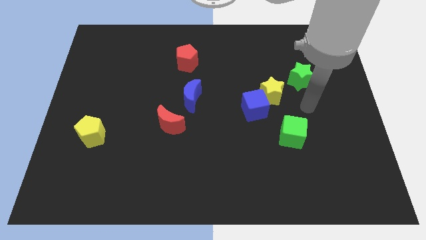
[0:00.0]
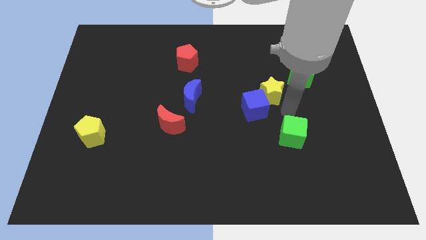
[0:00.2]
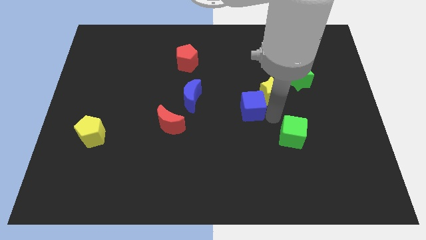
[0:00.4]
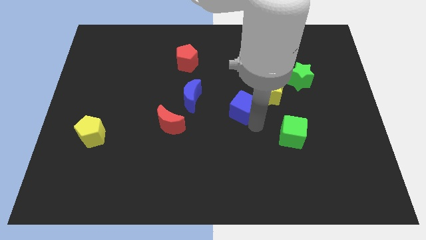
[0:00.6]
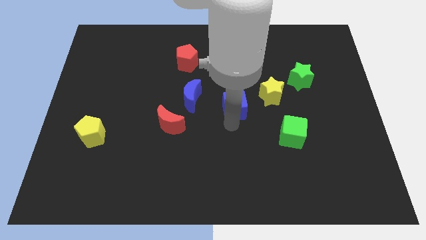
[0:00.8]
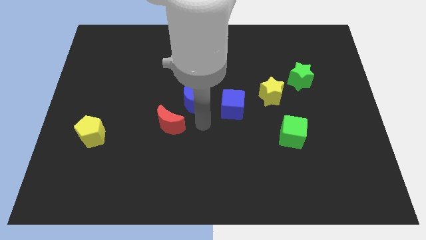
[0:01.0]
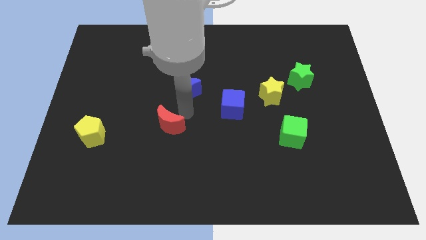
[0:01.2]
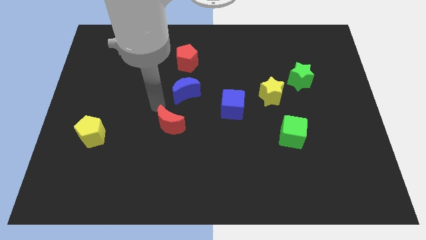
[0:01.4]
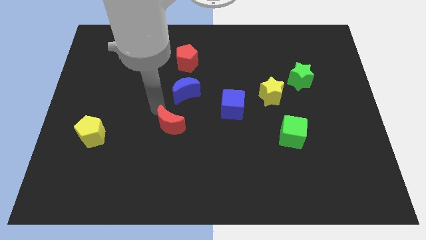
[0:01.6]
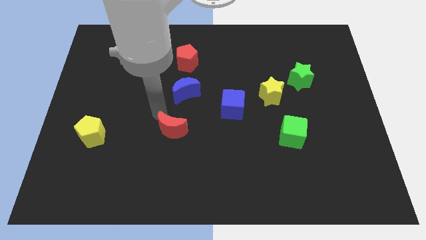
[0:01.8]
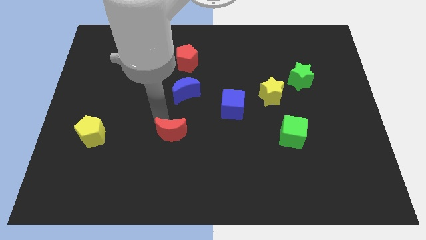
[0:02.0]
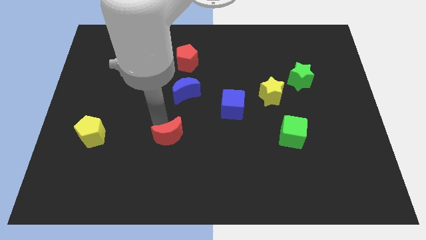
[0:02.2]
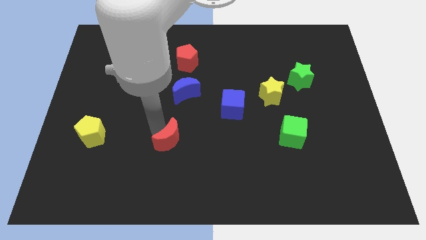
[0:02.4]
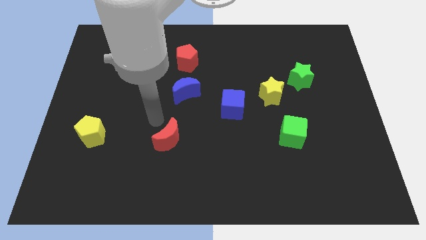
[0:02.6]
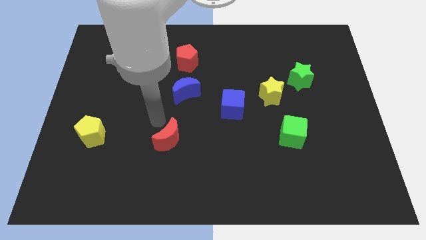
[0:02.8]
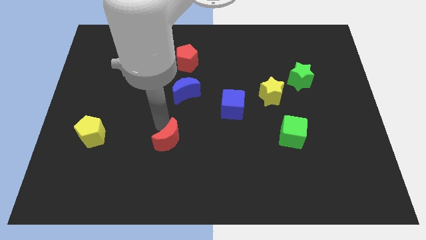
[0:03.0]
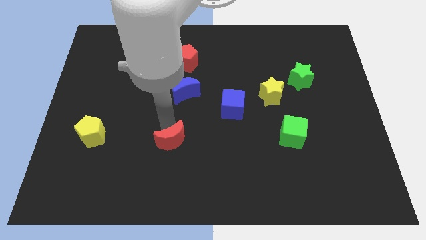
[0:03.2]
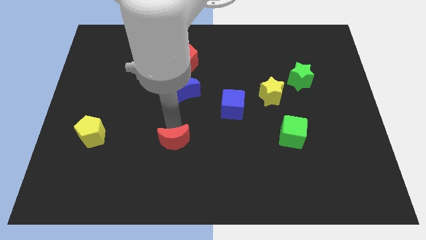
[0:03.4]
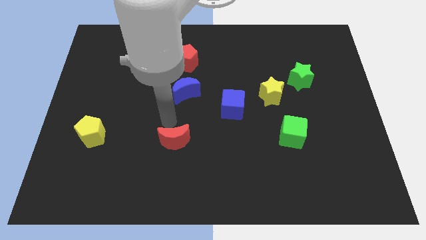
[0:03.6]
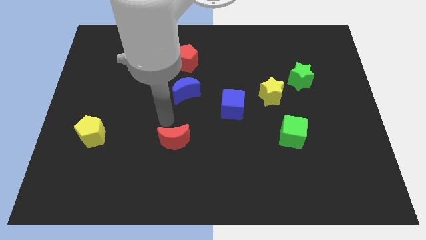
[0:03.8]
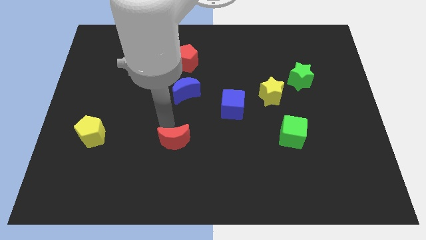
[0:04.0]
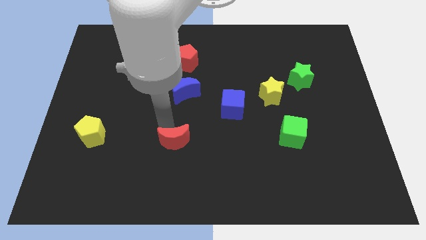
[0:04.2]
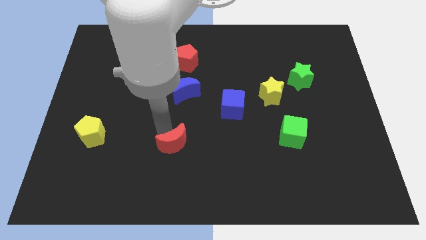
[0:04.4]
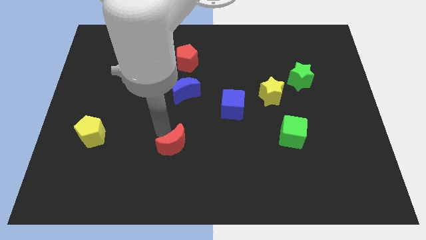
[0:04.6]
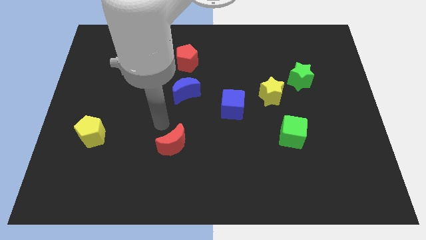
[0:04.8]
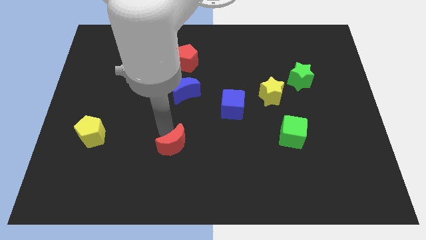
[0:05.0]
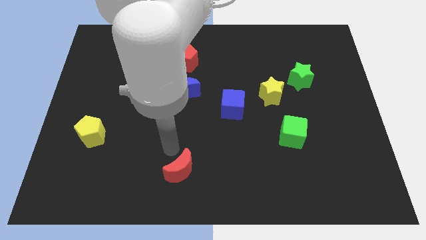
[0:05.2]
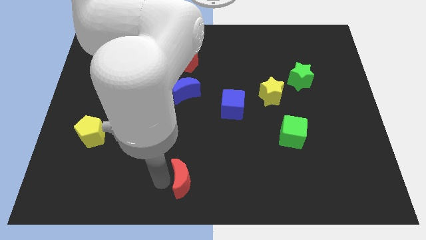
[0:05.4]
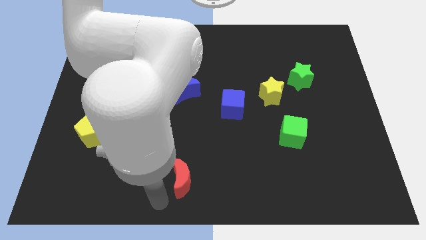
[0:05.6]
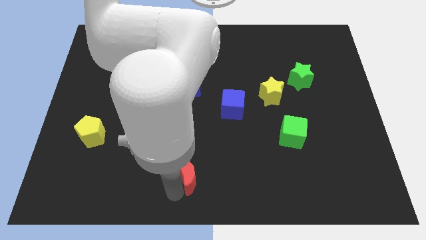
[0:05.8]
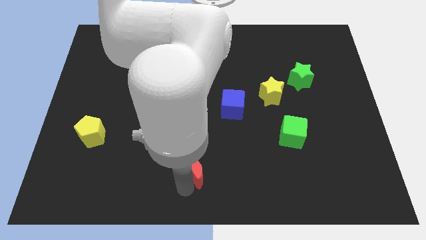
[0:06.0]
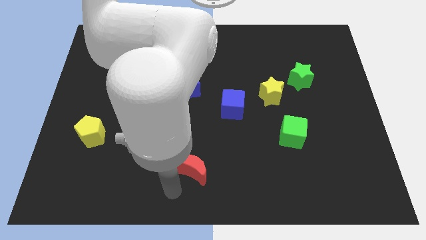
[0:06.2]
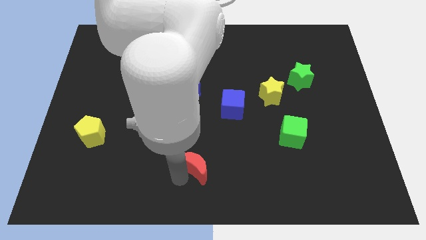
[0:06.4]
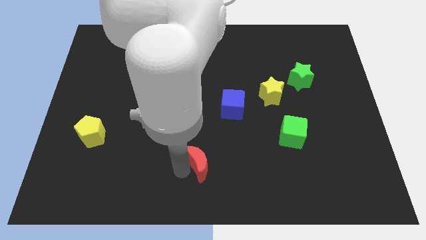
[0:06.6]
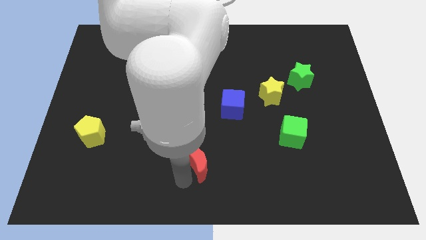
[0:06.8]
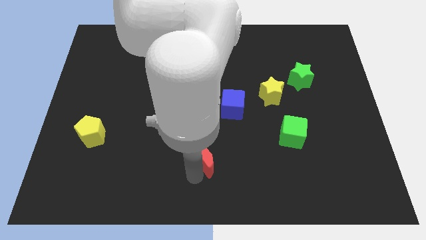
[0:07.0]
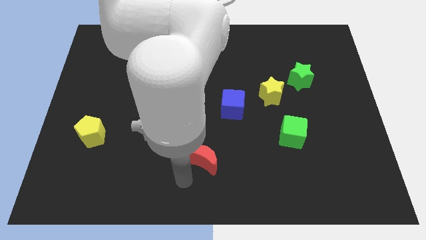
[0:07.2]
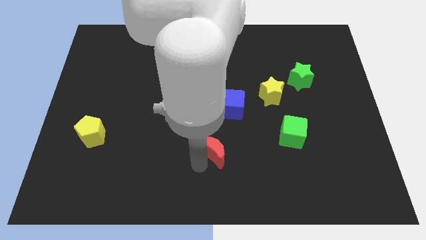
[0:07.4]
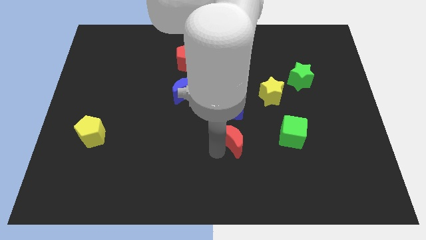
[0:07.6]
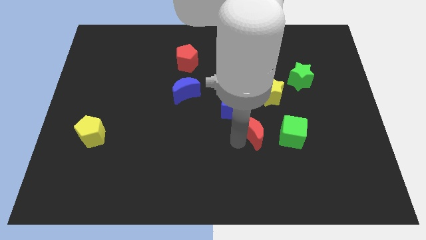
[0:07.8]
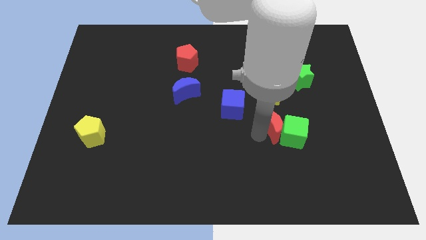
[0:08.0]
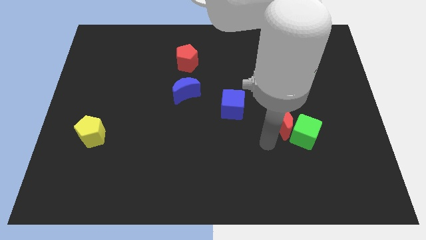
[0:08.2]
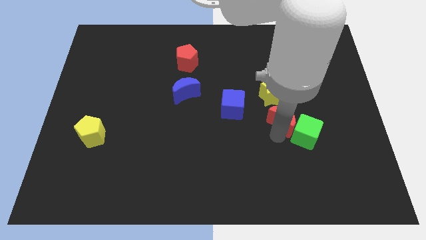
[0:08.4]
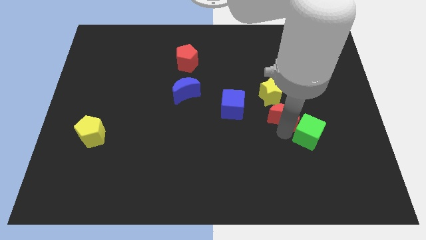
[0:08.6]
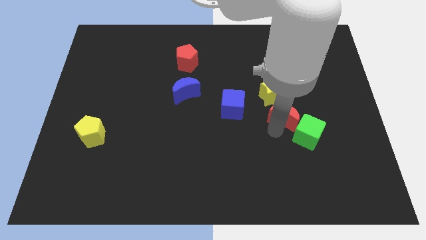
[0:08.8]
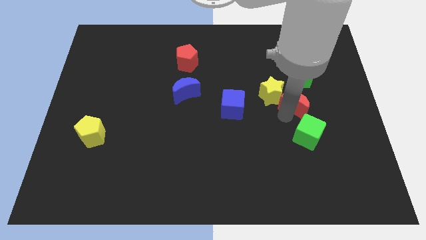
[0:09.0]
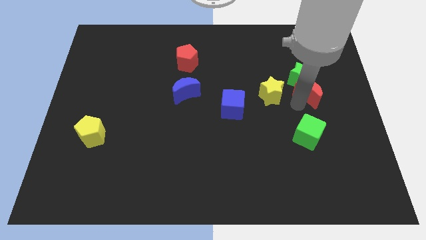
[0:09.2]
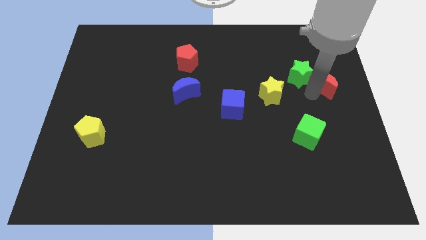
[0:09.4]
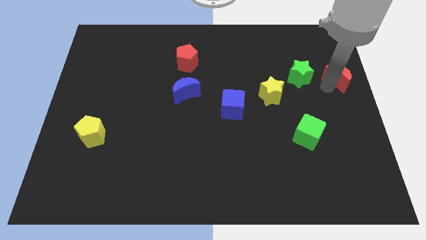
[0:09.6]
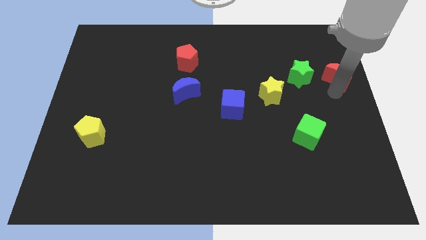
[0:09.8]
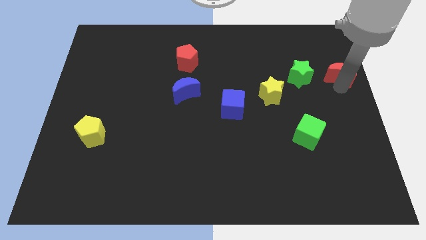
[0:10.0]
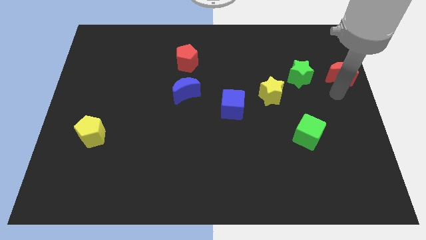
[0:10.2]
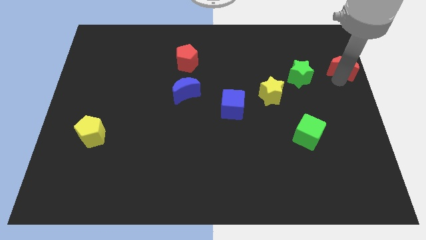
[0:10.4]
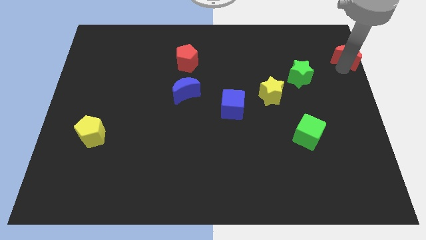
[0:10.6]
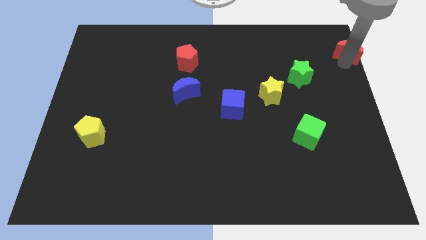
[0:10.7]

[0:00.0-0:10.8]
push the red moon to the top right

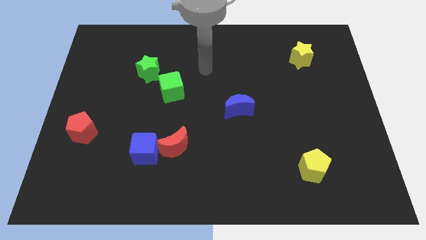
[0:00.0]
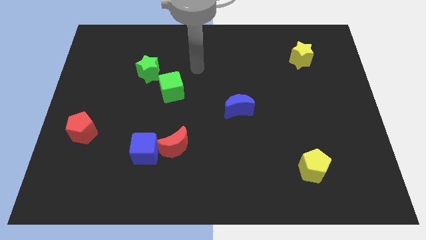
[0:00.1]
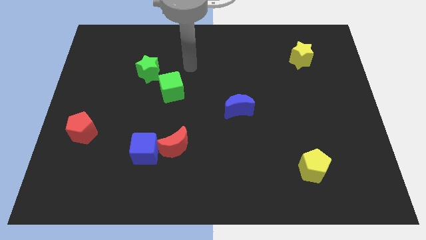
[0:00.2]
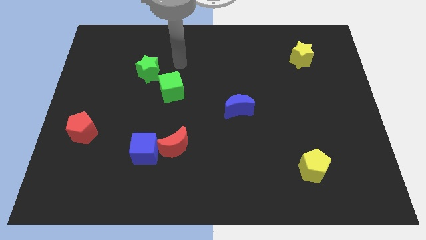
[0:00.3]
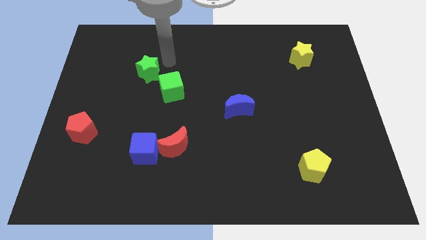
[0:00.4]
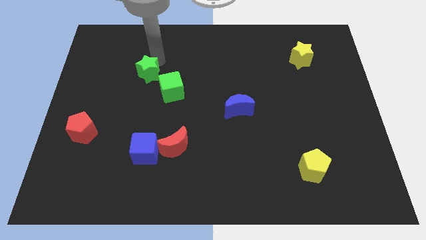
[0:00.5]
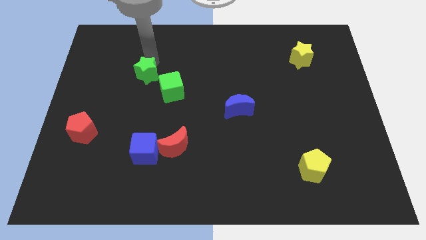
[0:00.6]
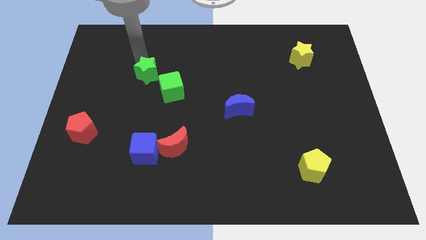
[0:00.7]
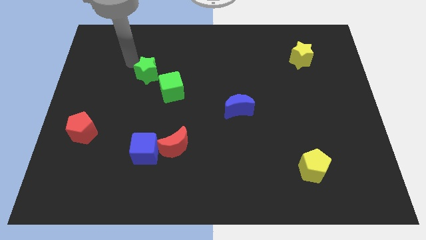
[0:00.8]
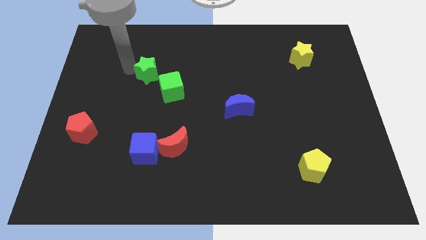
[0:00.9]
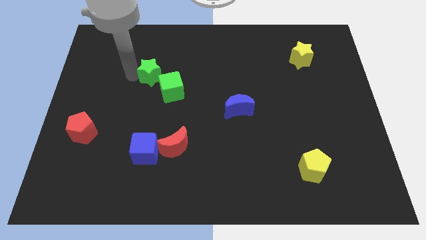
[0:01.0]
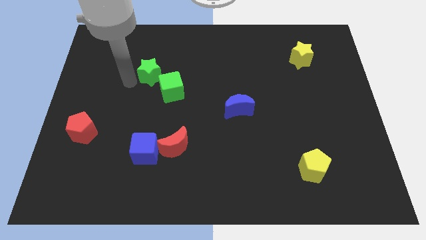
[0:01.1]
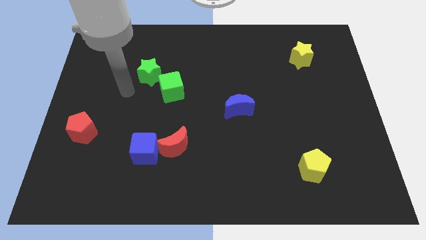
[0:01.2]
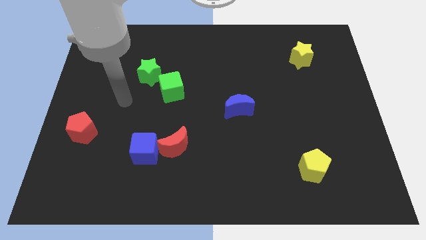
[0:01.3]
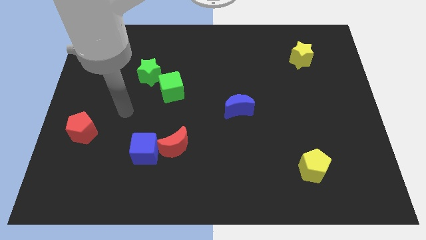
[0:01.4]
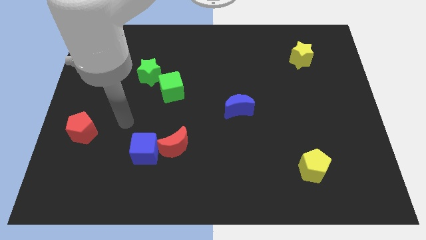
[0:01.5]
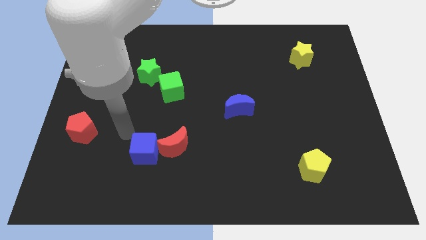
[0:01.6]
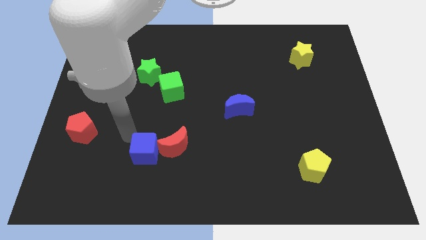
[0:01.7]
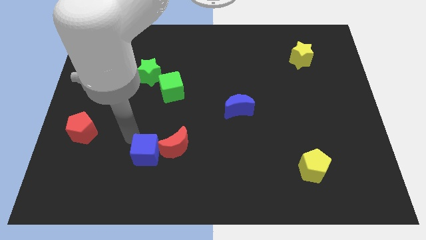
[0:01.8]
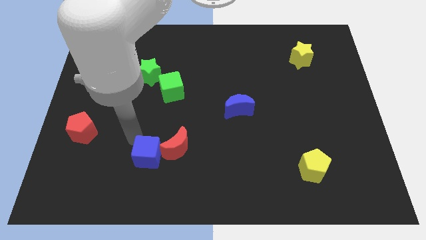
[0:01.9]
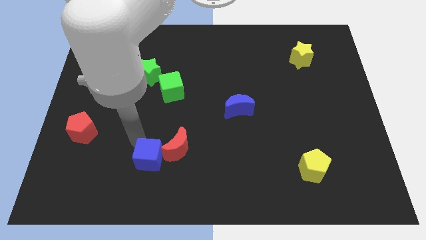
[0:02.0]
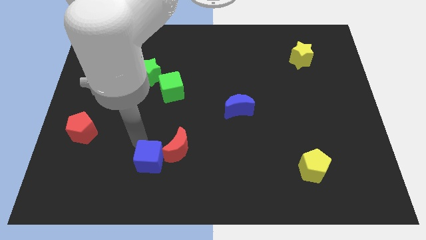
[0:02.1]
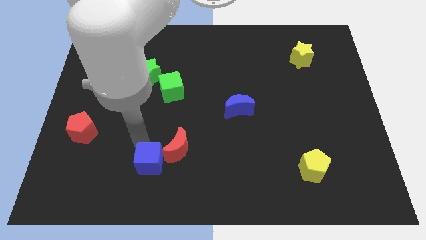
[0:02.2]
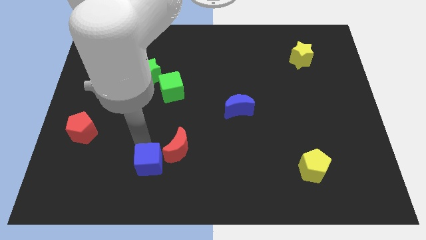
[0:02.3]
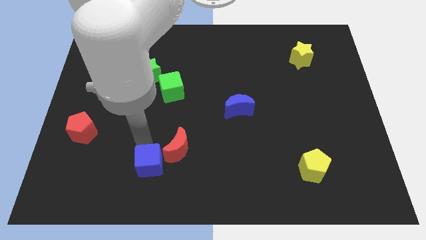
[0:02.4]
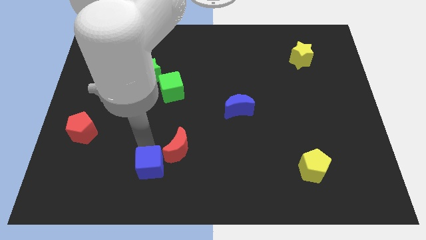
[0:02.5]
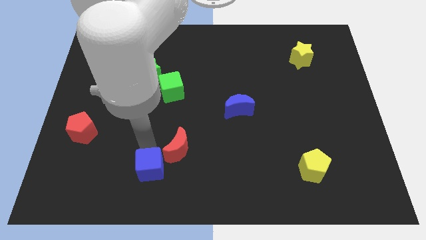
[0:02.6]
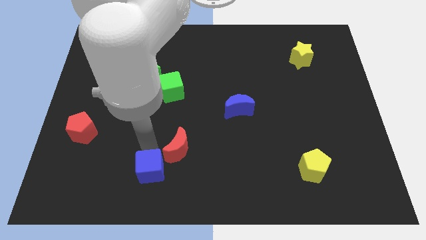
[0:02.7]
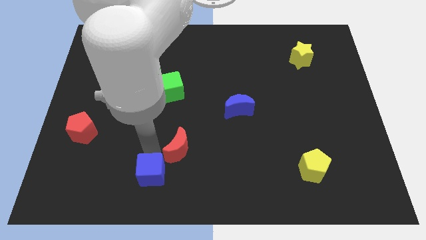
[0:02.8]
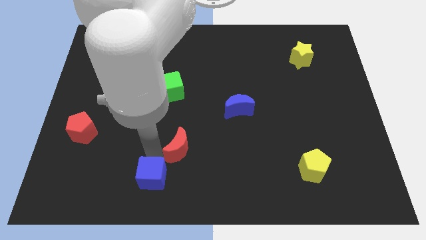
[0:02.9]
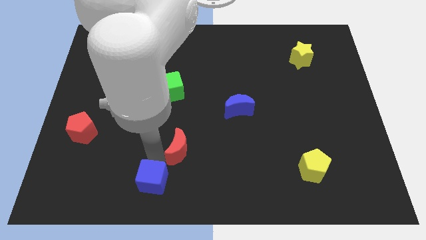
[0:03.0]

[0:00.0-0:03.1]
push the blue cube to the bottom
